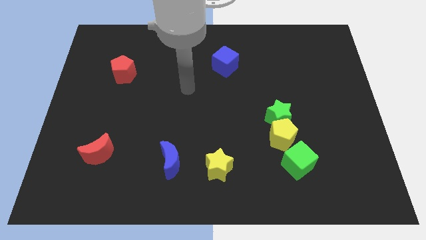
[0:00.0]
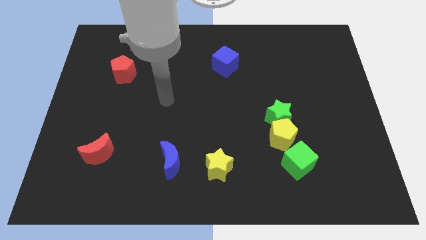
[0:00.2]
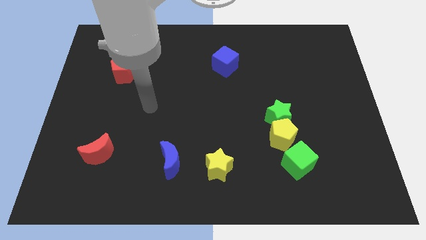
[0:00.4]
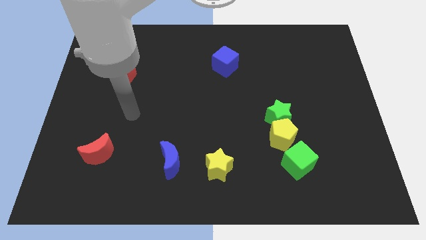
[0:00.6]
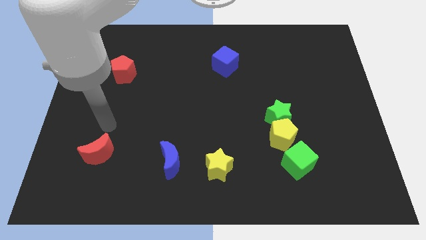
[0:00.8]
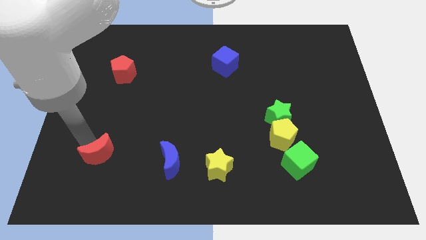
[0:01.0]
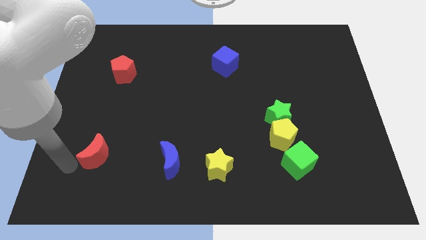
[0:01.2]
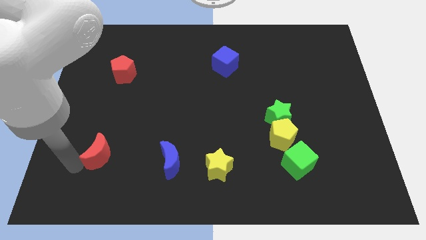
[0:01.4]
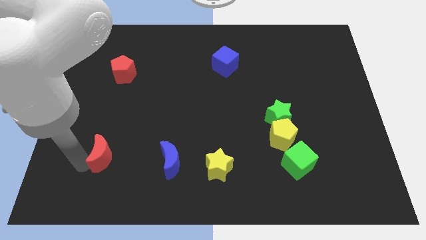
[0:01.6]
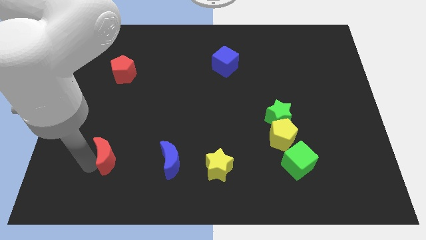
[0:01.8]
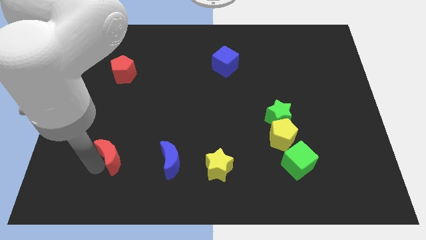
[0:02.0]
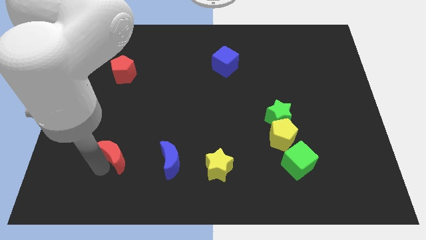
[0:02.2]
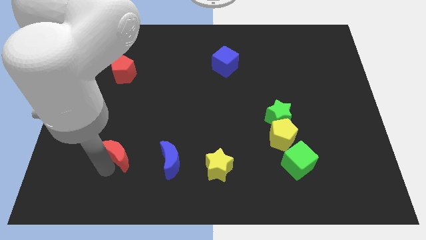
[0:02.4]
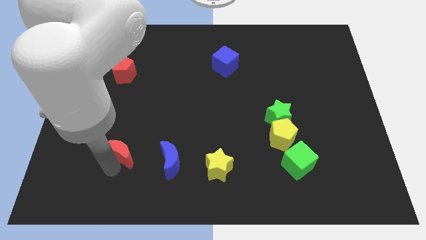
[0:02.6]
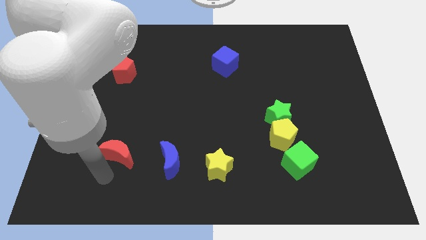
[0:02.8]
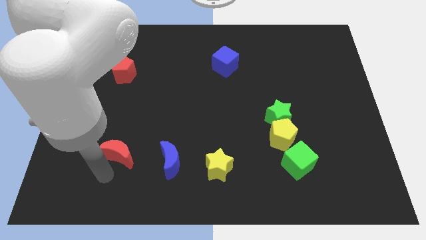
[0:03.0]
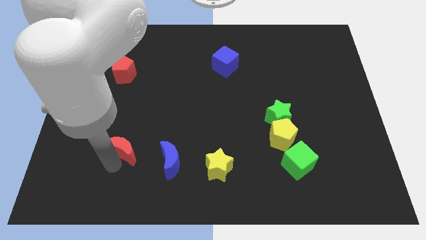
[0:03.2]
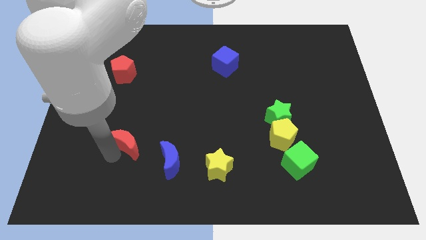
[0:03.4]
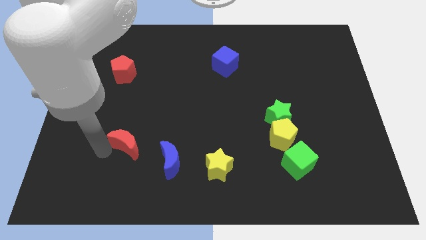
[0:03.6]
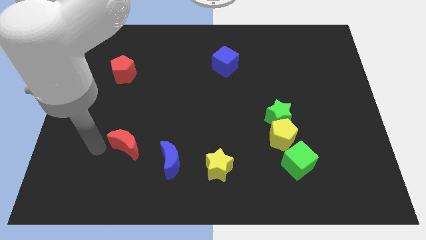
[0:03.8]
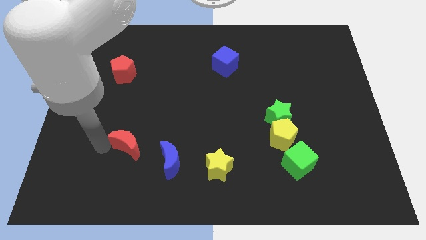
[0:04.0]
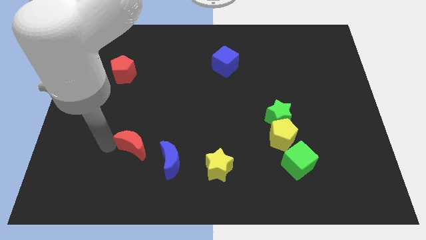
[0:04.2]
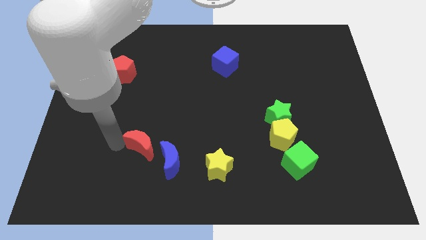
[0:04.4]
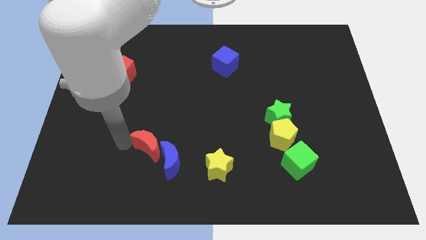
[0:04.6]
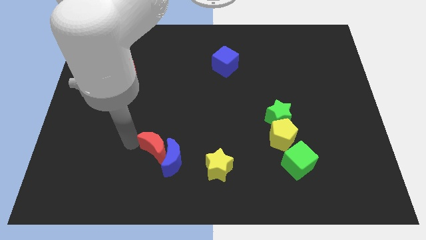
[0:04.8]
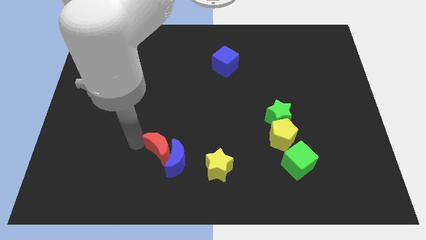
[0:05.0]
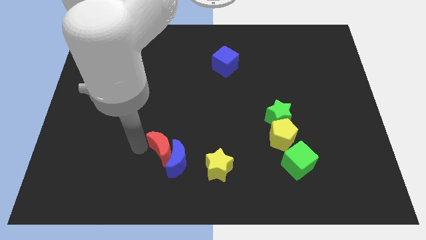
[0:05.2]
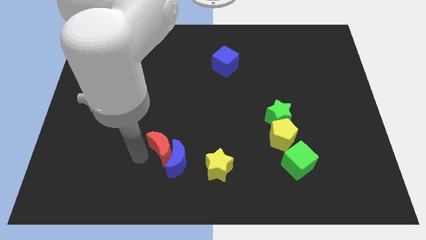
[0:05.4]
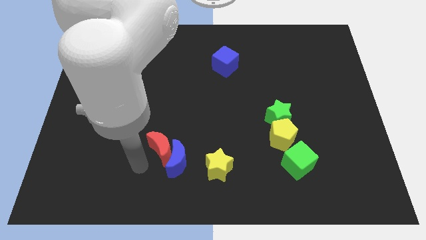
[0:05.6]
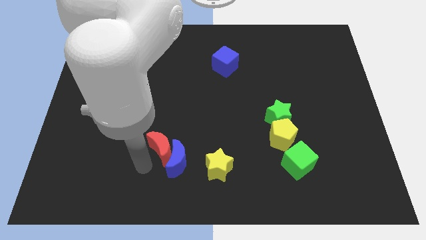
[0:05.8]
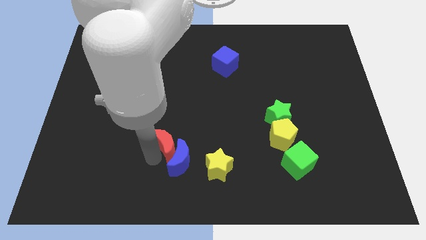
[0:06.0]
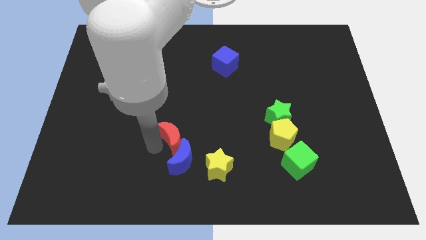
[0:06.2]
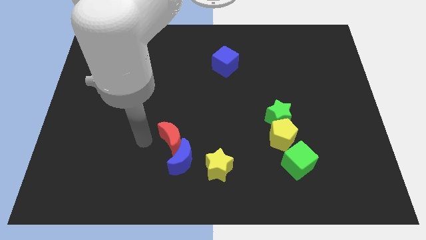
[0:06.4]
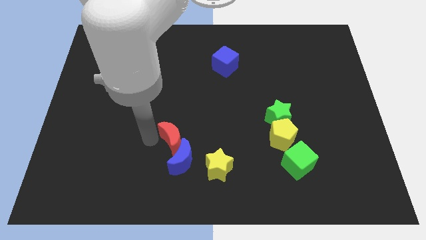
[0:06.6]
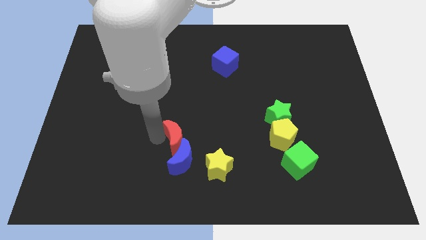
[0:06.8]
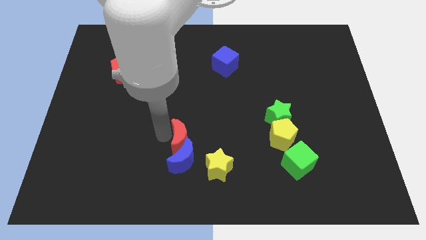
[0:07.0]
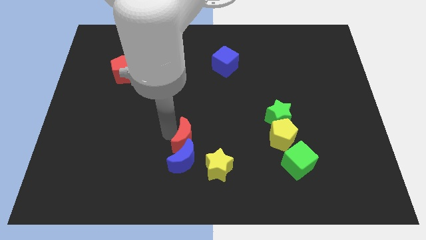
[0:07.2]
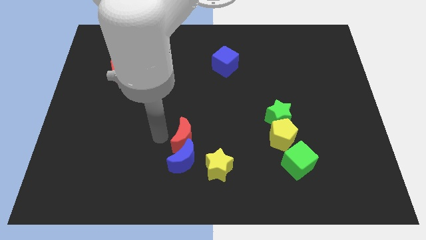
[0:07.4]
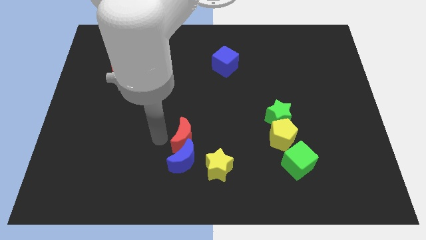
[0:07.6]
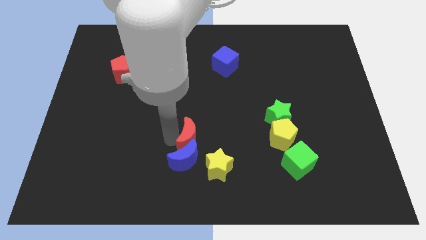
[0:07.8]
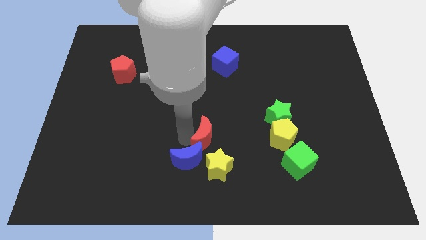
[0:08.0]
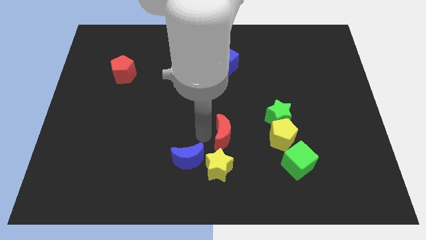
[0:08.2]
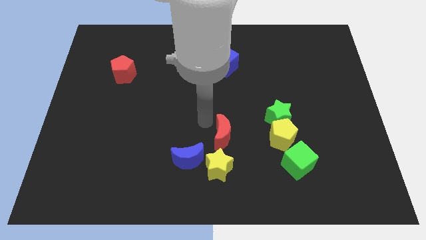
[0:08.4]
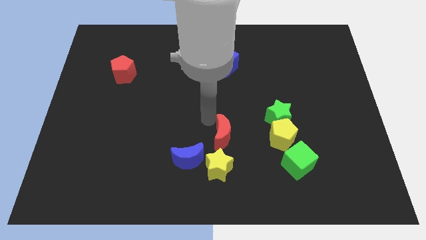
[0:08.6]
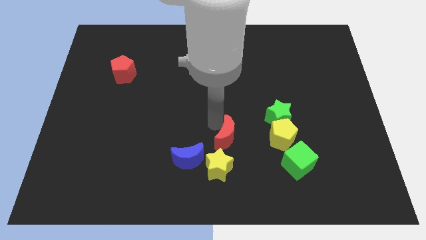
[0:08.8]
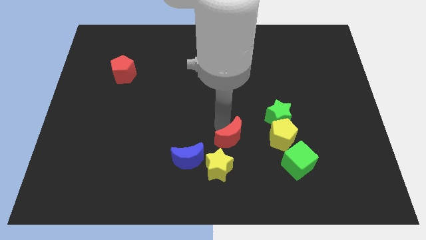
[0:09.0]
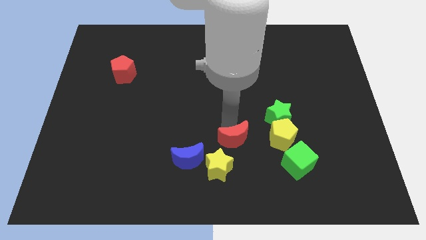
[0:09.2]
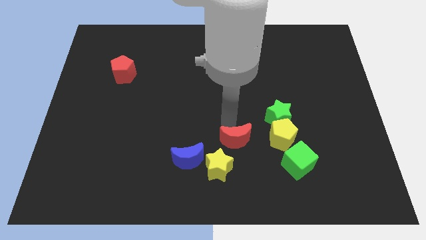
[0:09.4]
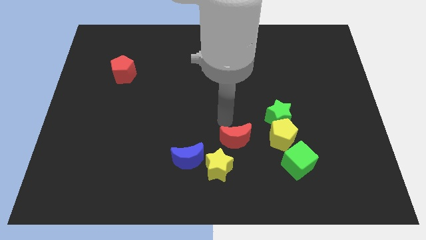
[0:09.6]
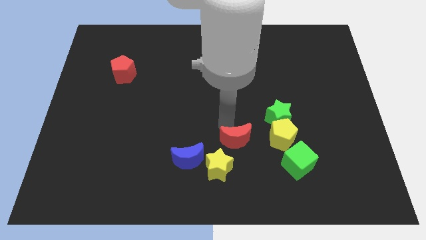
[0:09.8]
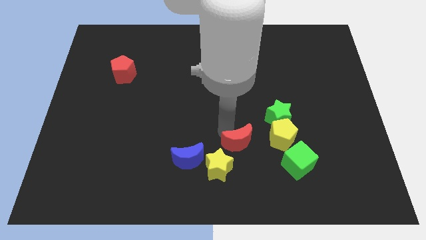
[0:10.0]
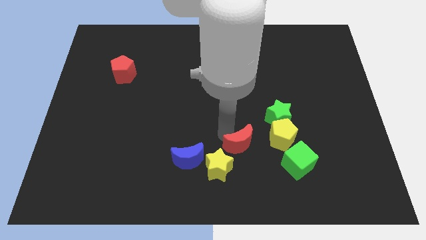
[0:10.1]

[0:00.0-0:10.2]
move the red moon to the left of the green cube

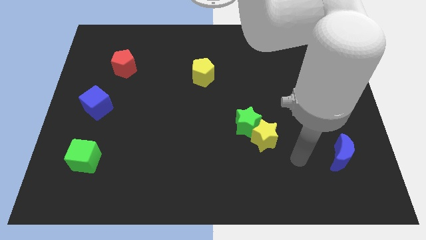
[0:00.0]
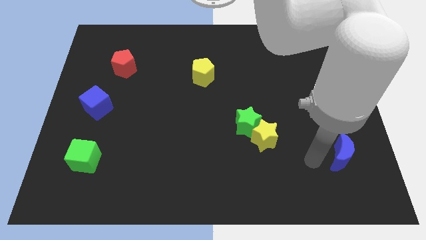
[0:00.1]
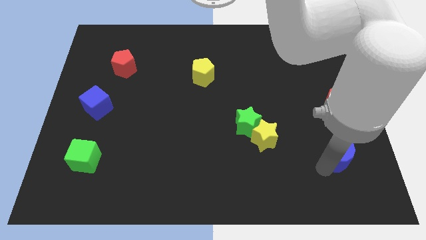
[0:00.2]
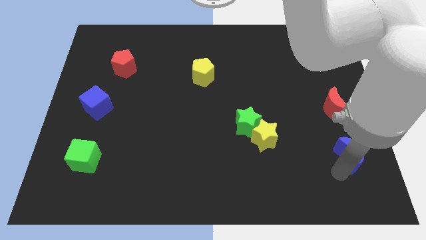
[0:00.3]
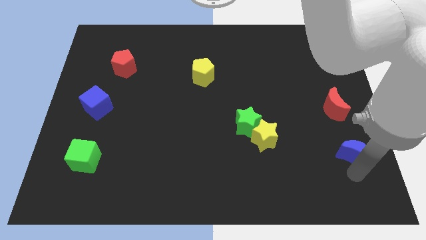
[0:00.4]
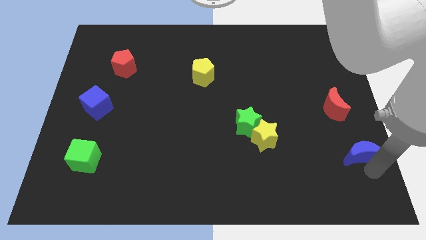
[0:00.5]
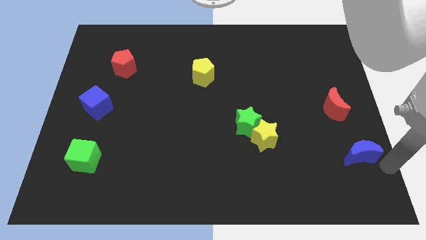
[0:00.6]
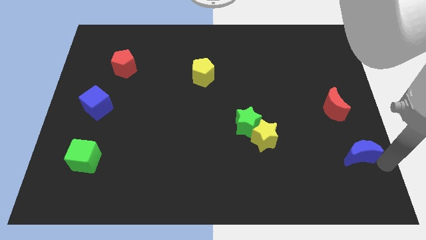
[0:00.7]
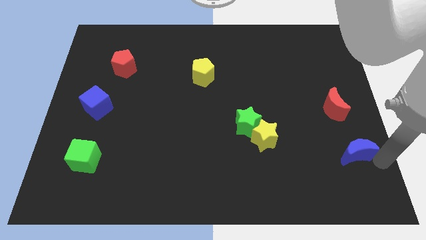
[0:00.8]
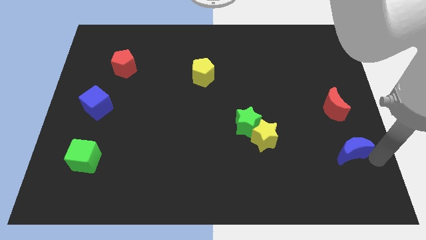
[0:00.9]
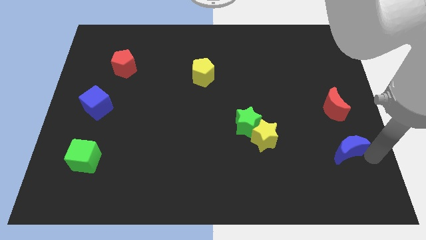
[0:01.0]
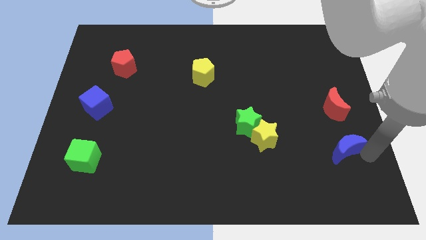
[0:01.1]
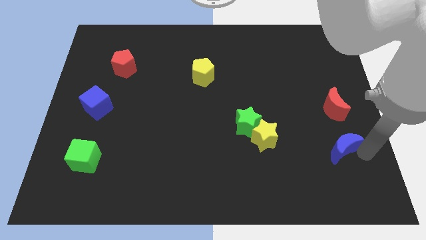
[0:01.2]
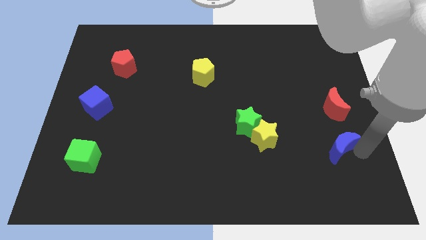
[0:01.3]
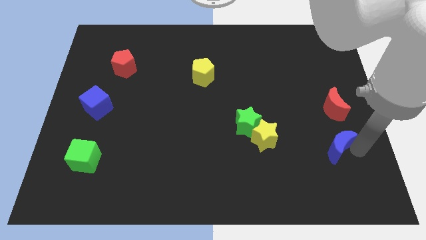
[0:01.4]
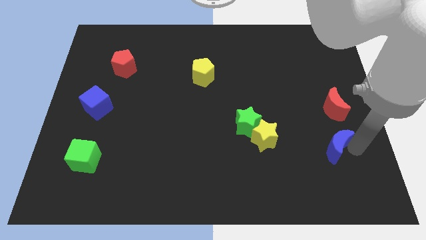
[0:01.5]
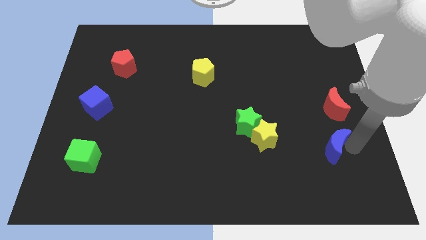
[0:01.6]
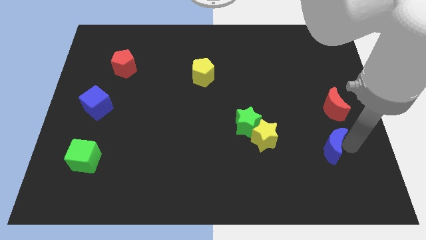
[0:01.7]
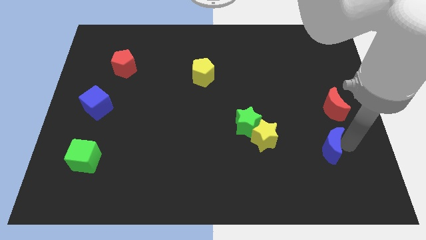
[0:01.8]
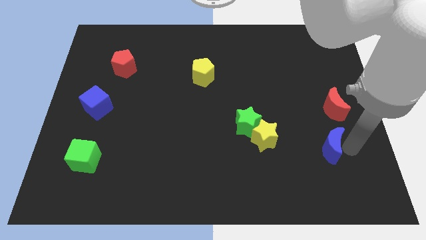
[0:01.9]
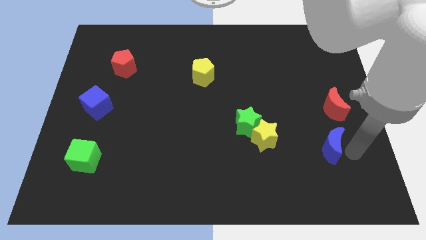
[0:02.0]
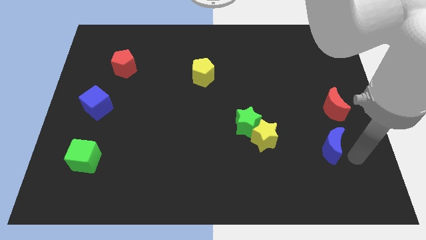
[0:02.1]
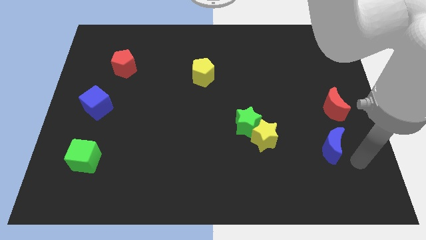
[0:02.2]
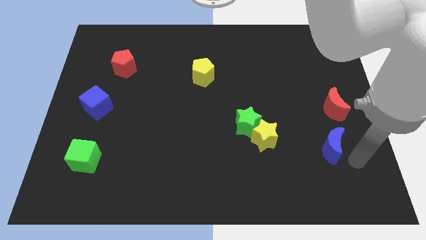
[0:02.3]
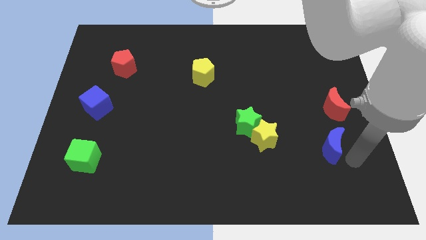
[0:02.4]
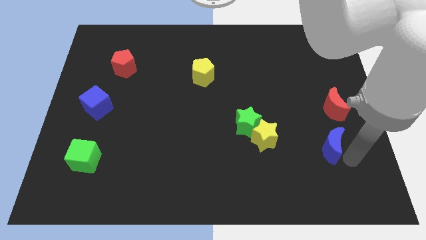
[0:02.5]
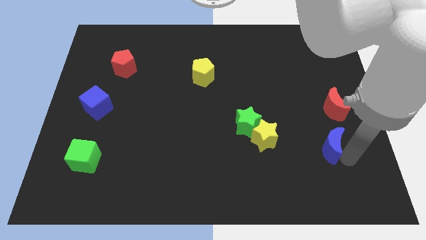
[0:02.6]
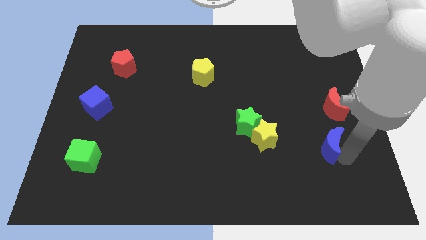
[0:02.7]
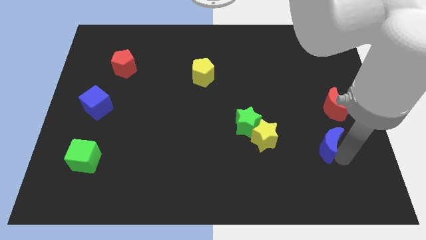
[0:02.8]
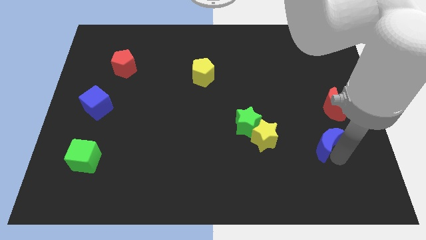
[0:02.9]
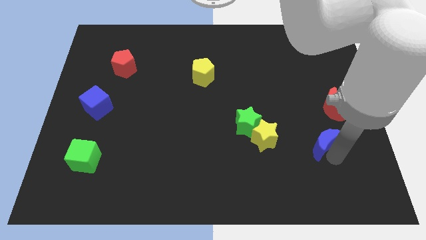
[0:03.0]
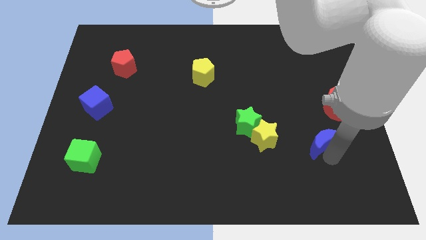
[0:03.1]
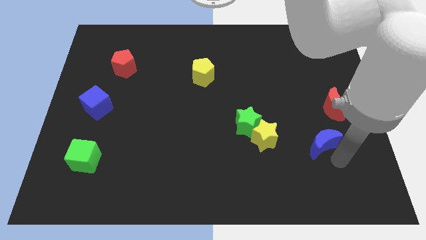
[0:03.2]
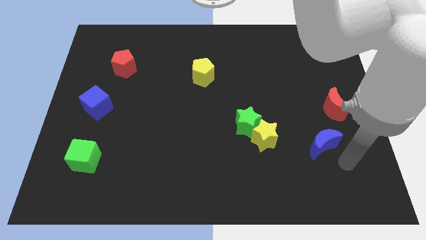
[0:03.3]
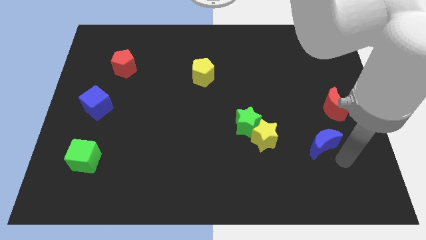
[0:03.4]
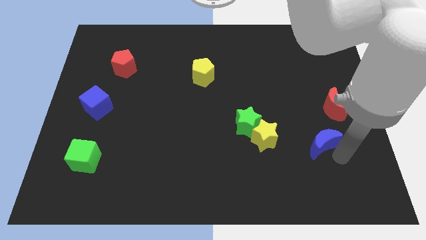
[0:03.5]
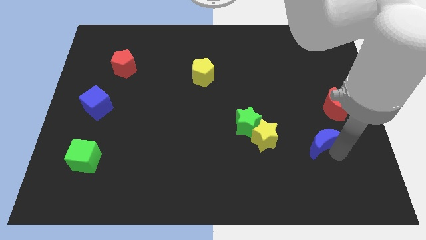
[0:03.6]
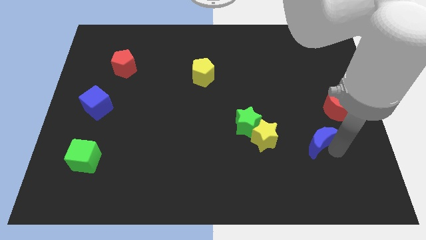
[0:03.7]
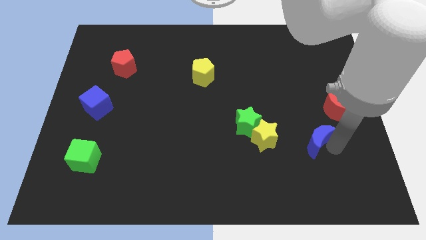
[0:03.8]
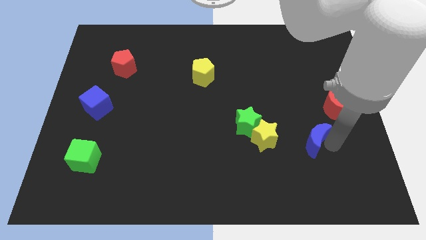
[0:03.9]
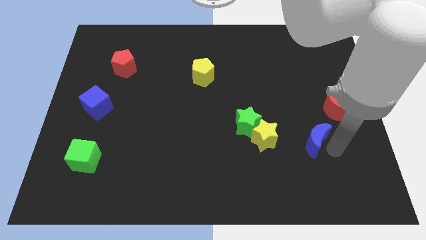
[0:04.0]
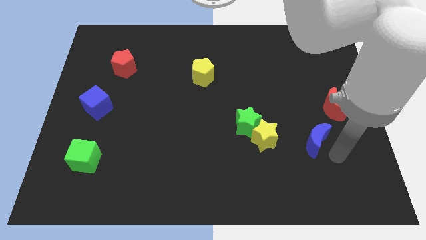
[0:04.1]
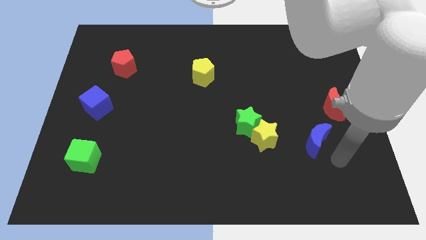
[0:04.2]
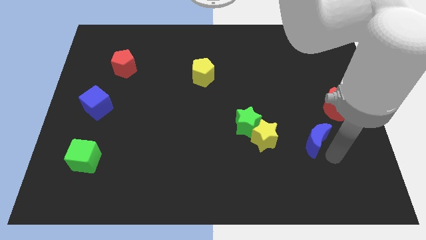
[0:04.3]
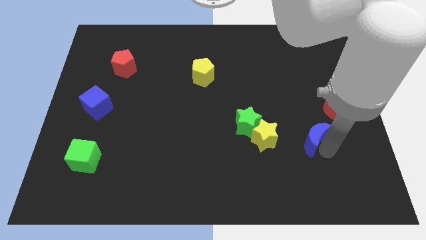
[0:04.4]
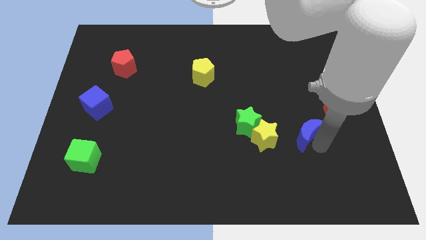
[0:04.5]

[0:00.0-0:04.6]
push the blue moon to the right of the green star
